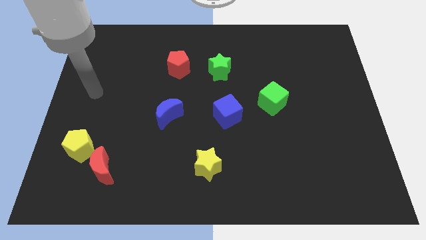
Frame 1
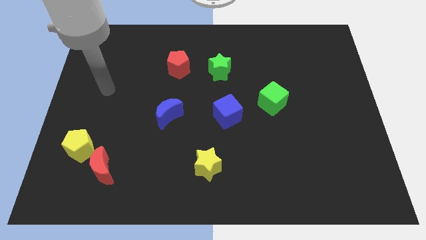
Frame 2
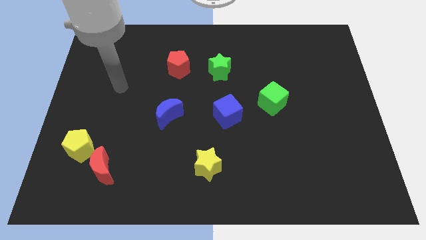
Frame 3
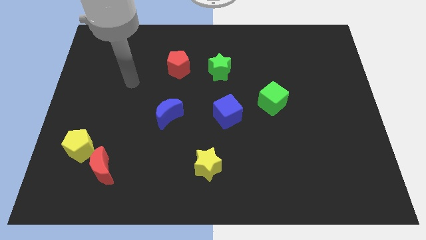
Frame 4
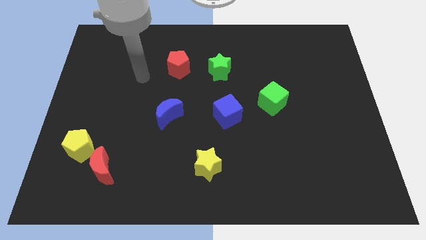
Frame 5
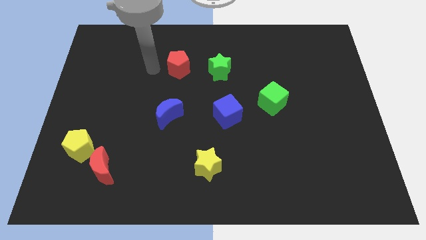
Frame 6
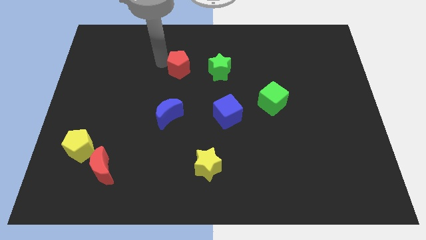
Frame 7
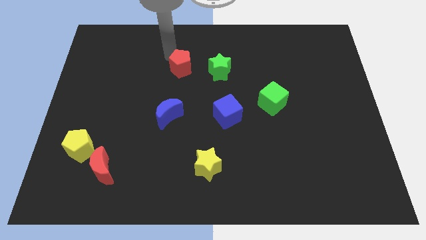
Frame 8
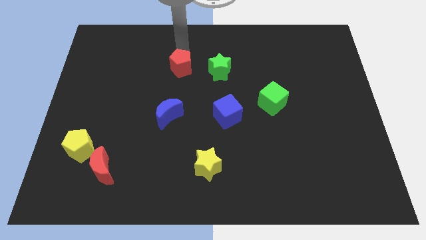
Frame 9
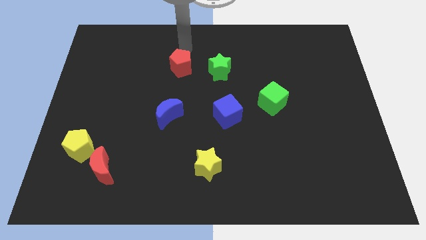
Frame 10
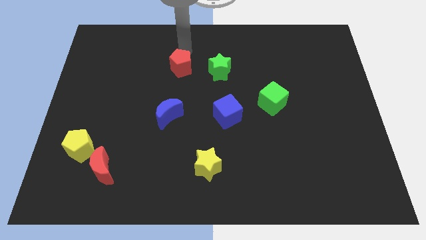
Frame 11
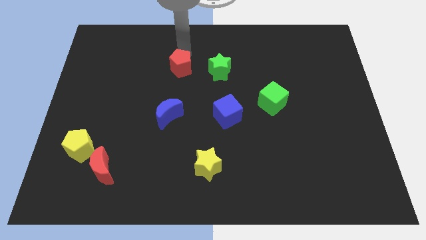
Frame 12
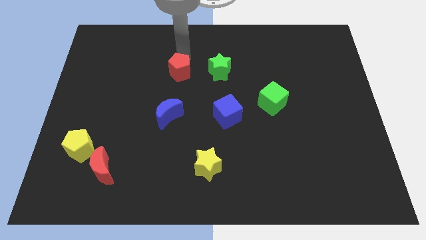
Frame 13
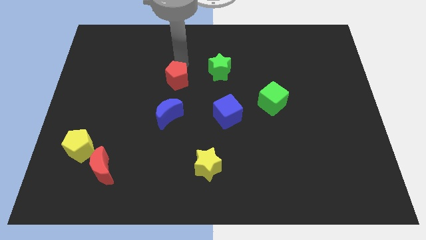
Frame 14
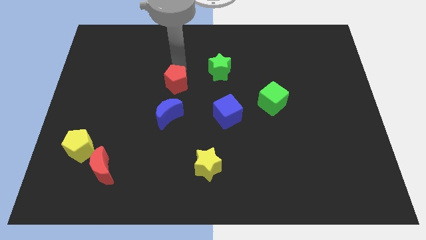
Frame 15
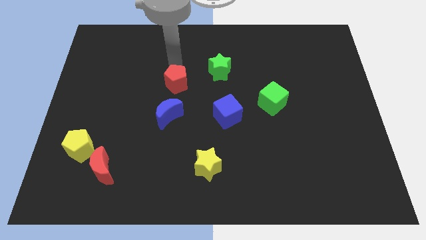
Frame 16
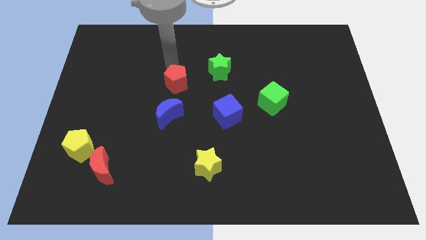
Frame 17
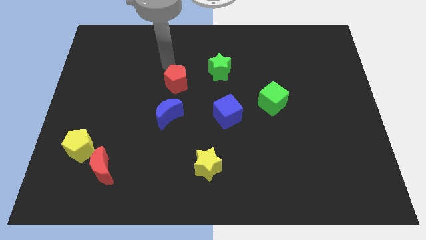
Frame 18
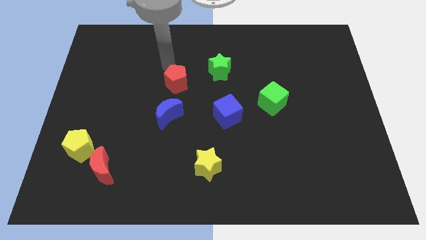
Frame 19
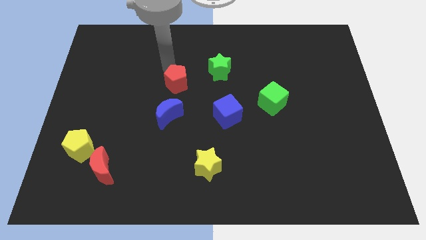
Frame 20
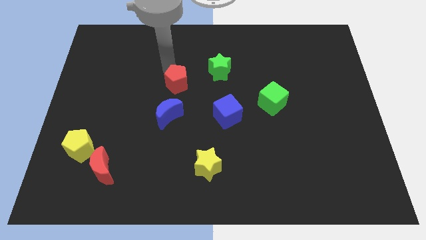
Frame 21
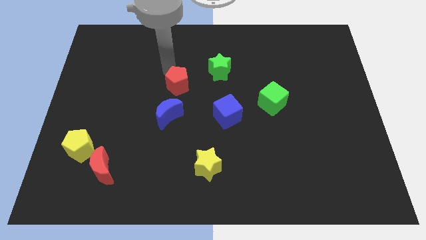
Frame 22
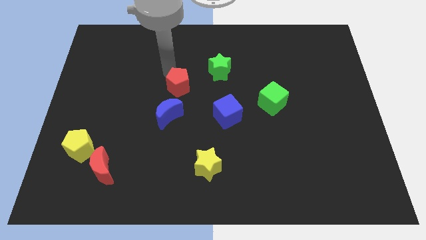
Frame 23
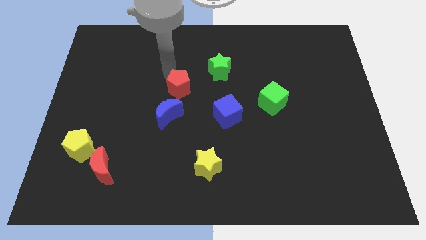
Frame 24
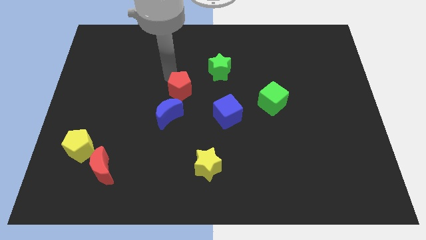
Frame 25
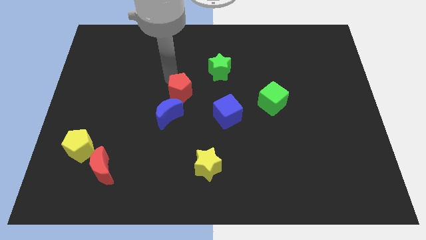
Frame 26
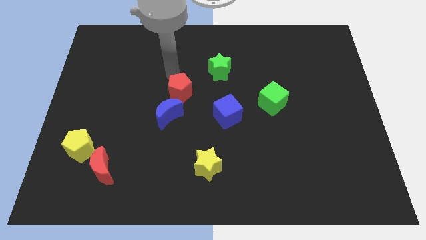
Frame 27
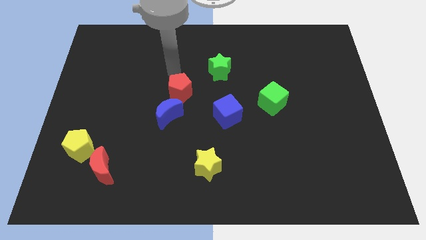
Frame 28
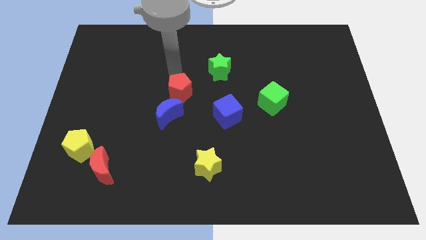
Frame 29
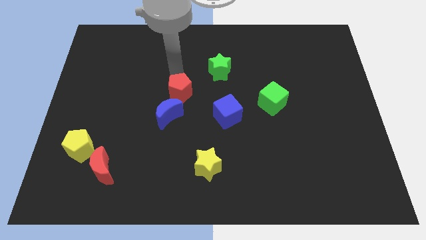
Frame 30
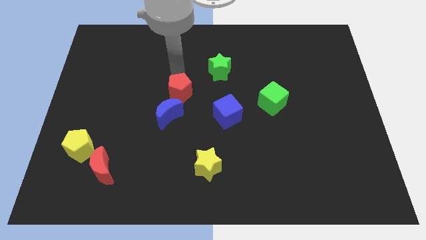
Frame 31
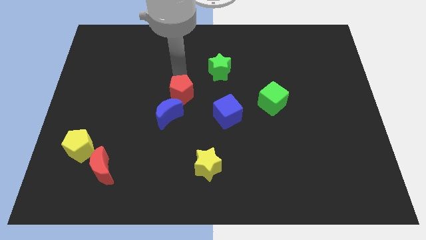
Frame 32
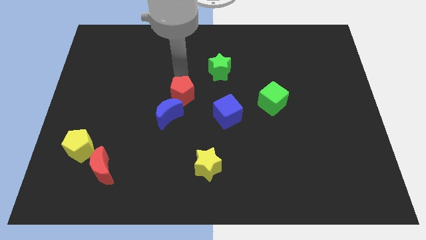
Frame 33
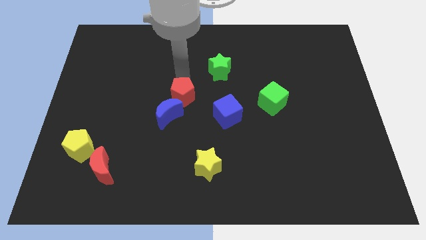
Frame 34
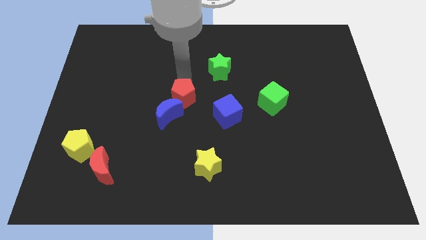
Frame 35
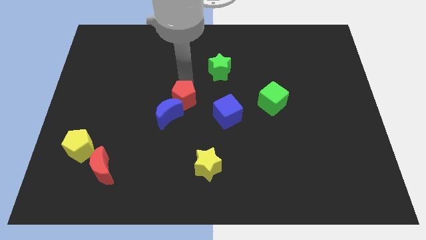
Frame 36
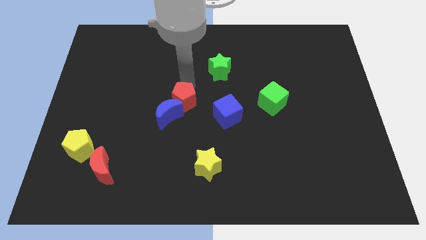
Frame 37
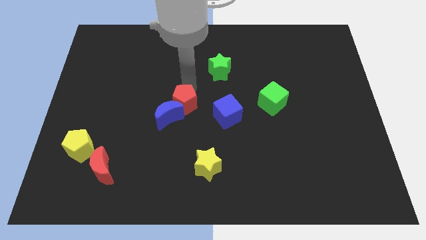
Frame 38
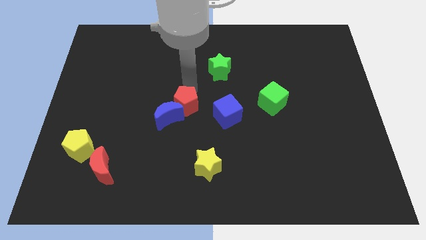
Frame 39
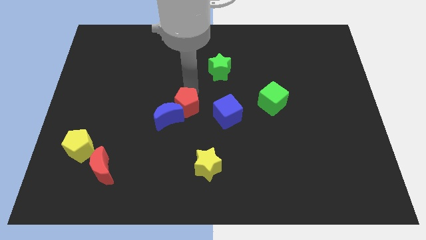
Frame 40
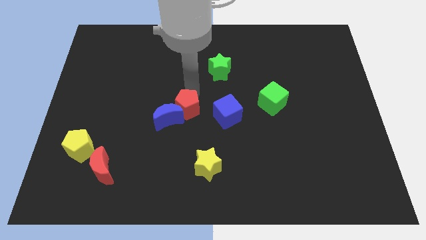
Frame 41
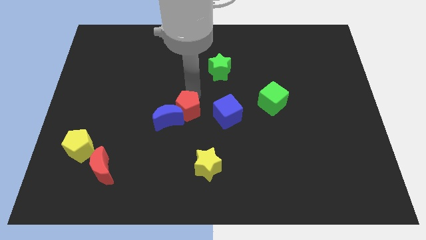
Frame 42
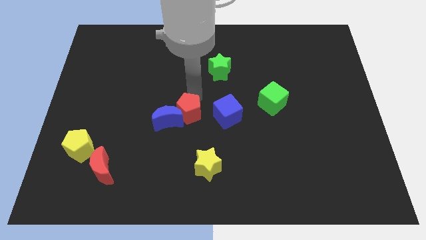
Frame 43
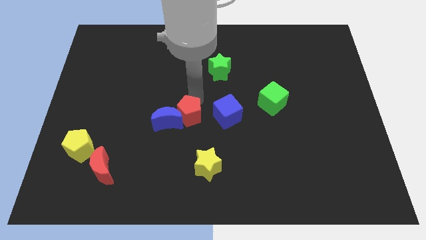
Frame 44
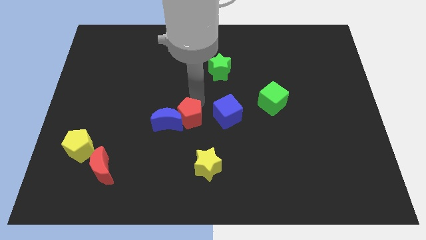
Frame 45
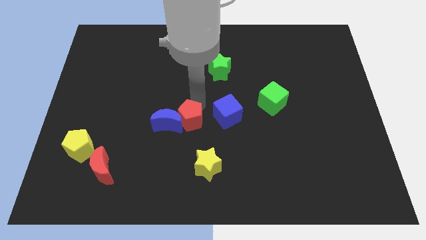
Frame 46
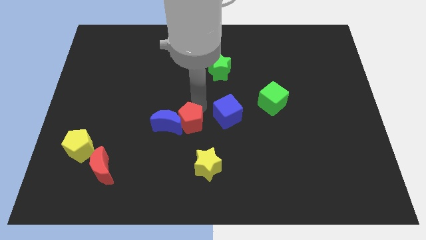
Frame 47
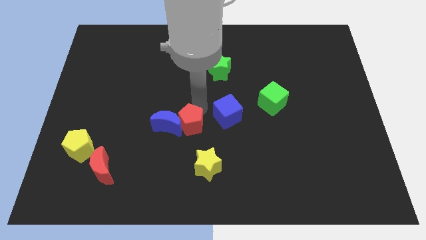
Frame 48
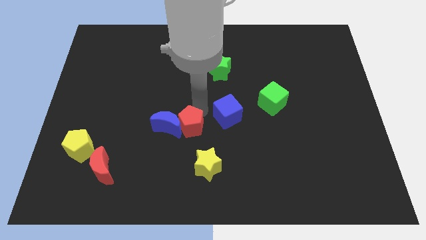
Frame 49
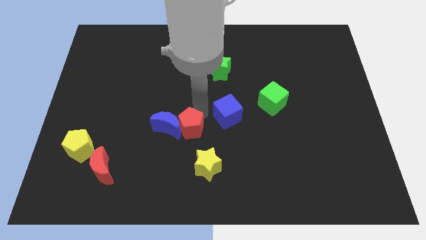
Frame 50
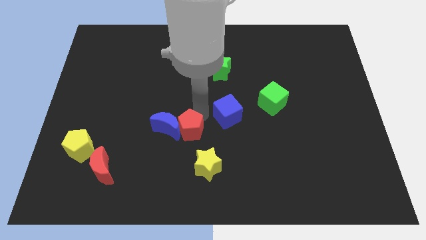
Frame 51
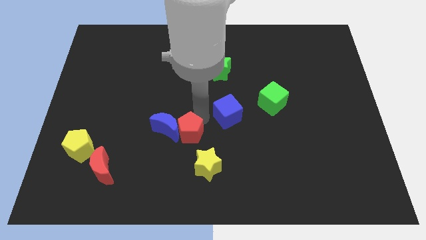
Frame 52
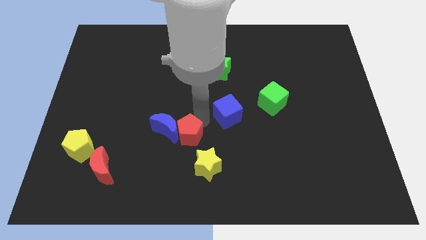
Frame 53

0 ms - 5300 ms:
push the red pentagon down

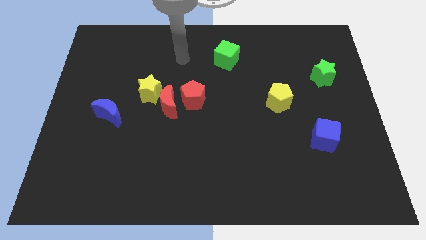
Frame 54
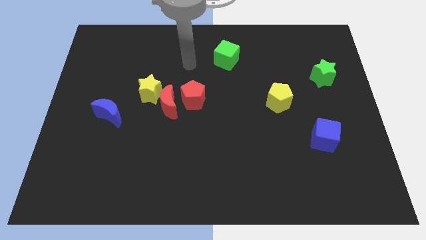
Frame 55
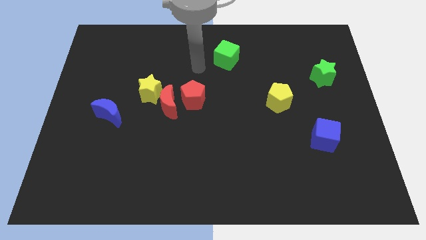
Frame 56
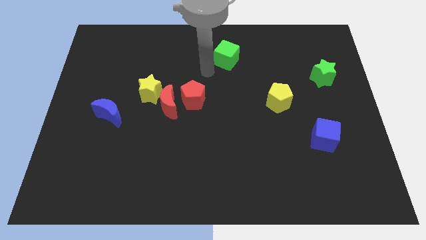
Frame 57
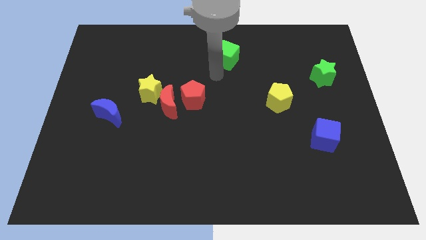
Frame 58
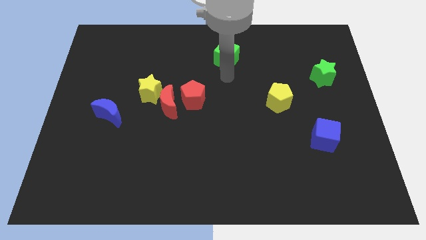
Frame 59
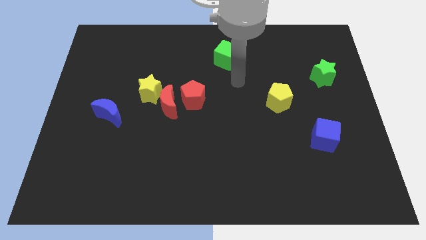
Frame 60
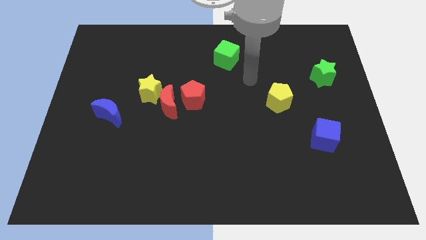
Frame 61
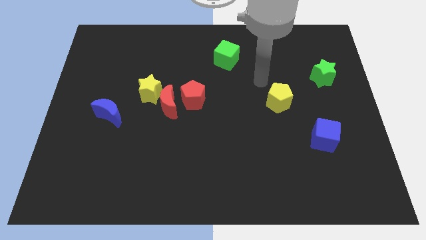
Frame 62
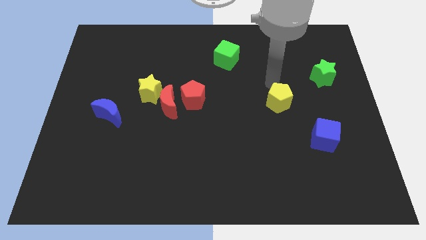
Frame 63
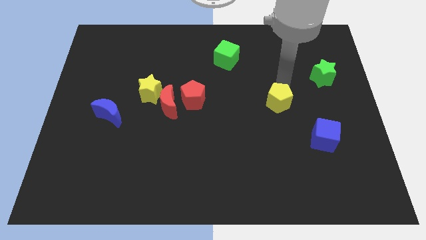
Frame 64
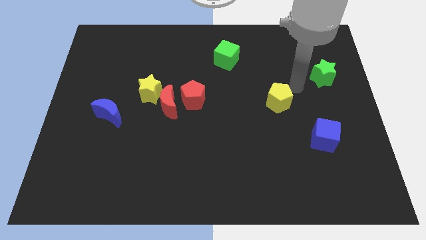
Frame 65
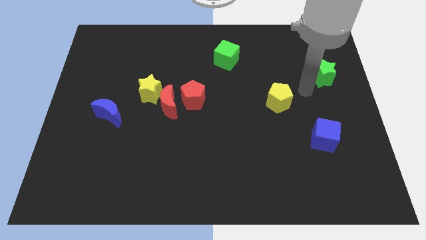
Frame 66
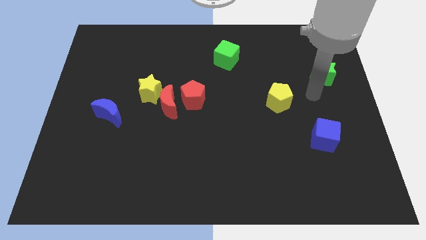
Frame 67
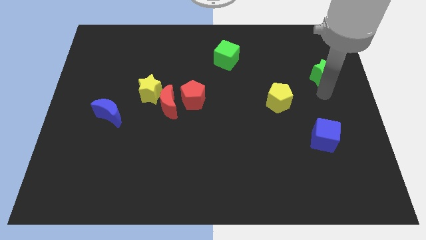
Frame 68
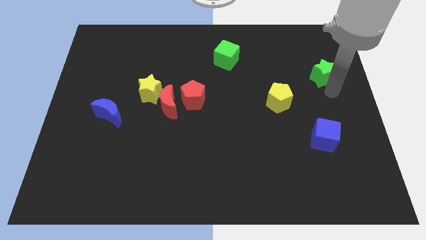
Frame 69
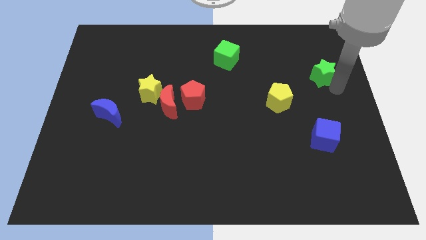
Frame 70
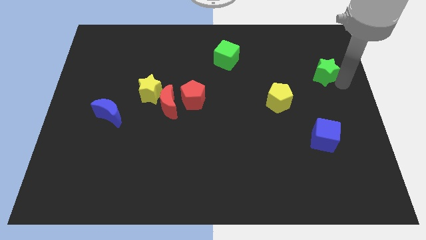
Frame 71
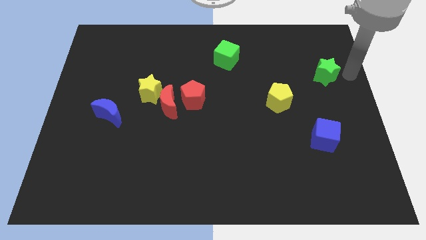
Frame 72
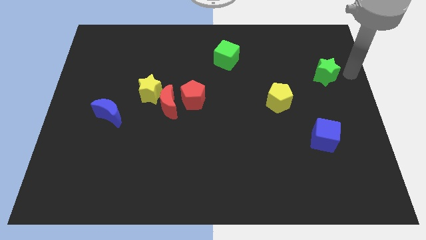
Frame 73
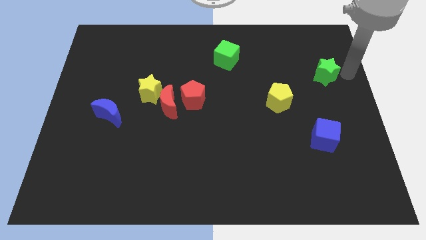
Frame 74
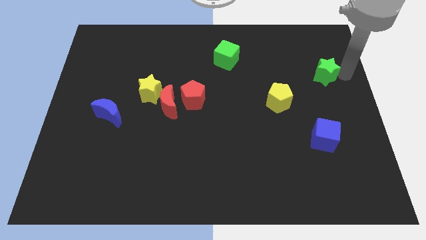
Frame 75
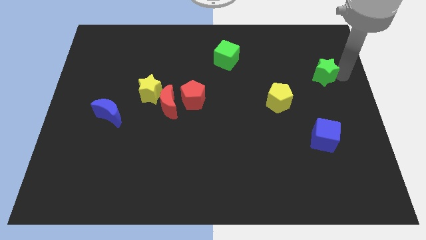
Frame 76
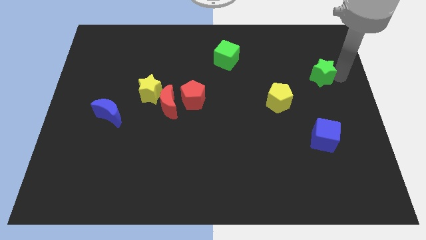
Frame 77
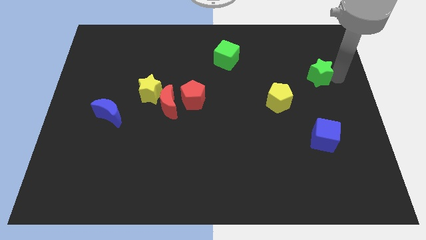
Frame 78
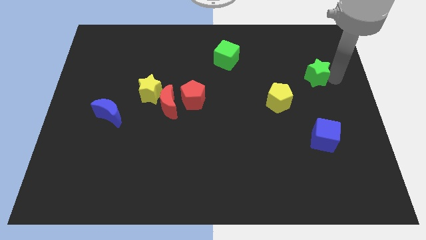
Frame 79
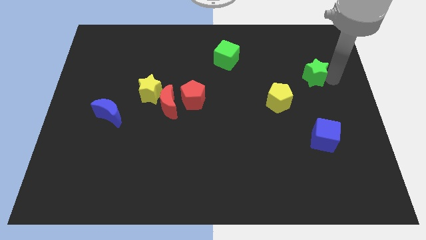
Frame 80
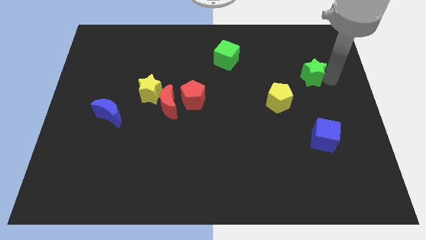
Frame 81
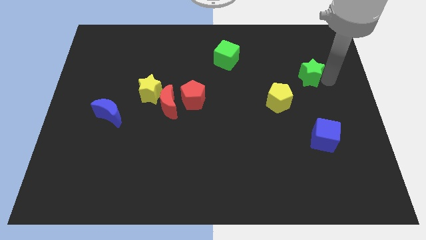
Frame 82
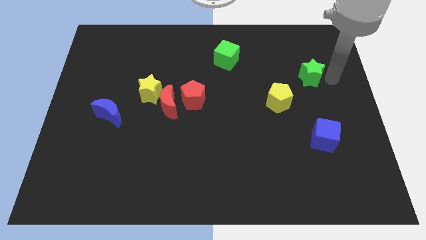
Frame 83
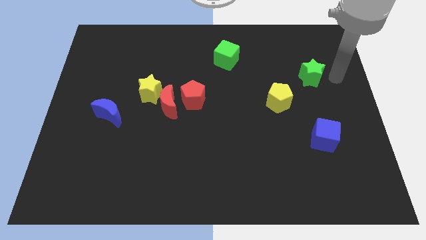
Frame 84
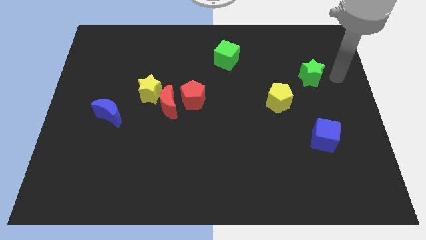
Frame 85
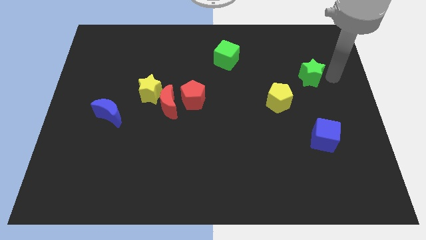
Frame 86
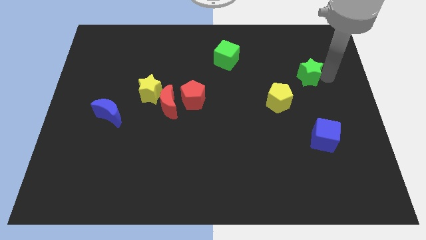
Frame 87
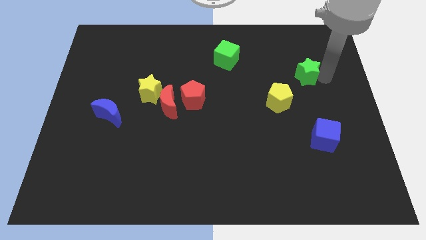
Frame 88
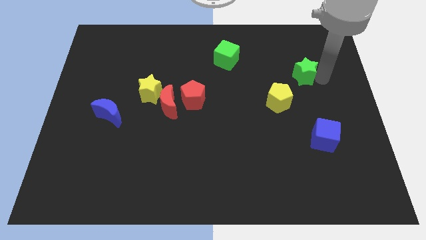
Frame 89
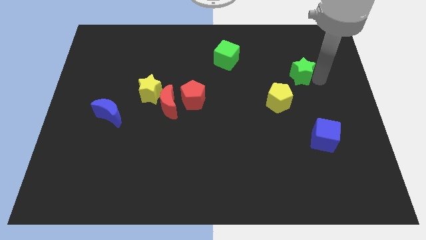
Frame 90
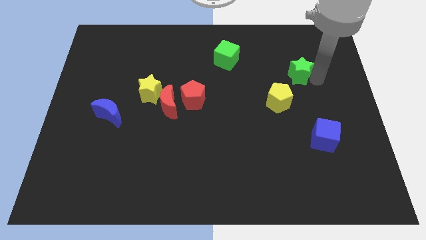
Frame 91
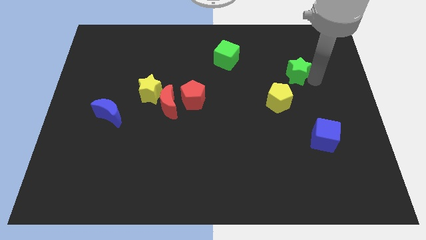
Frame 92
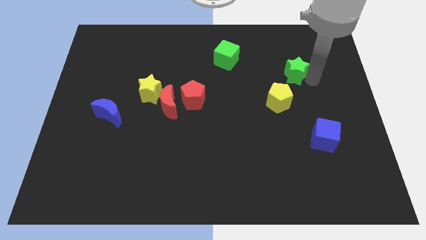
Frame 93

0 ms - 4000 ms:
slightly slide the green star to the left
